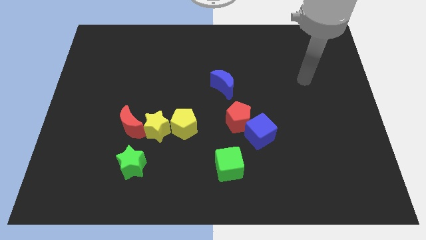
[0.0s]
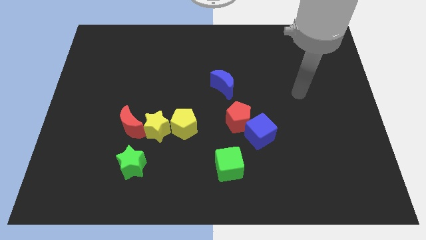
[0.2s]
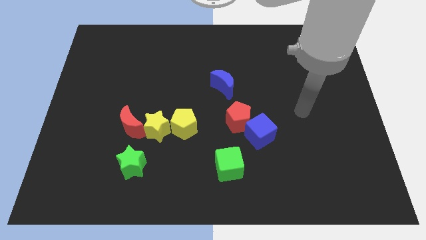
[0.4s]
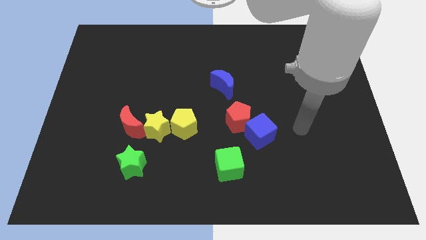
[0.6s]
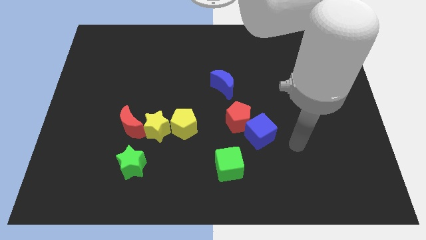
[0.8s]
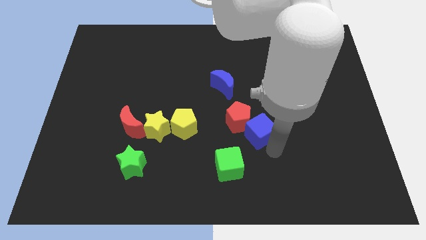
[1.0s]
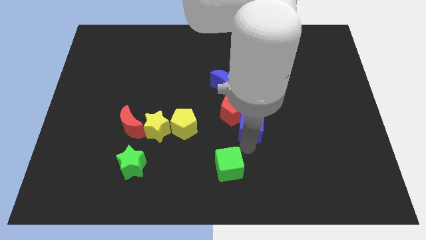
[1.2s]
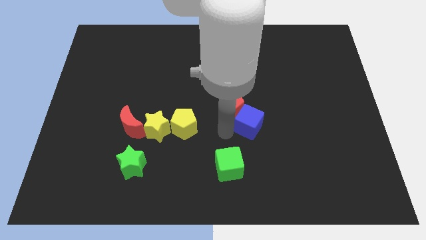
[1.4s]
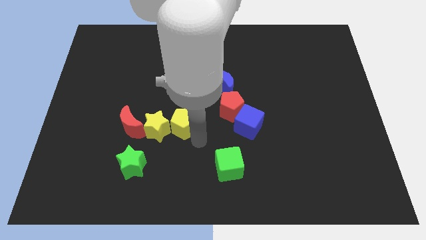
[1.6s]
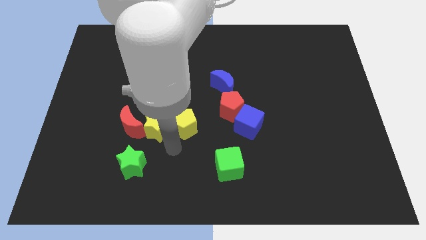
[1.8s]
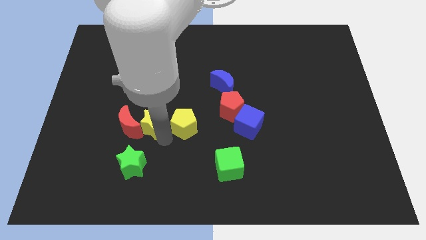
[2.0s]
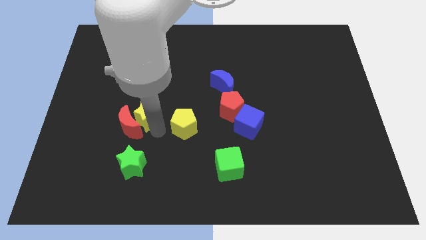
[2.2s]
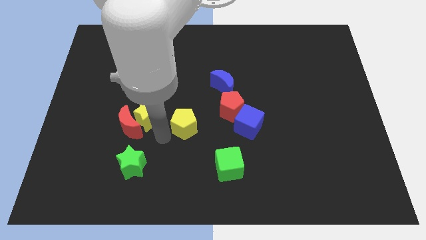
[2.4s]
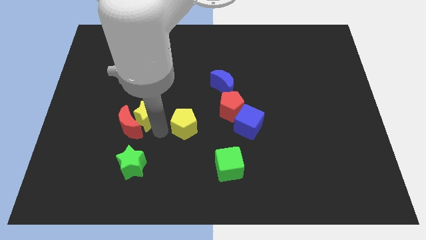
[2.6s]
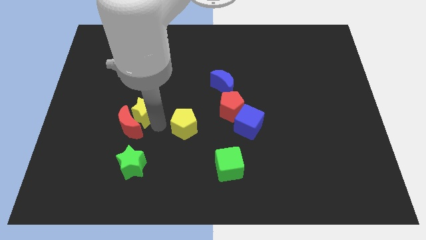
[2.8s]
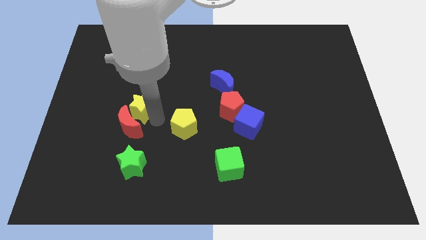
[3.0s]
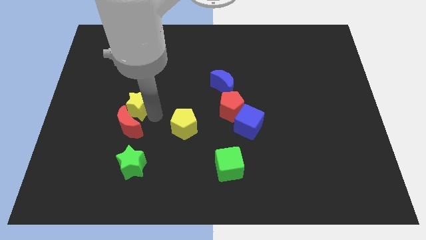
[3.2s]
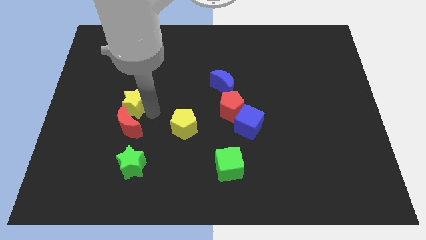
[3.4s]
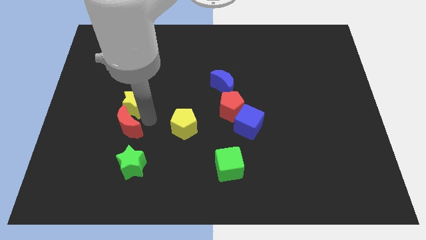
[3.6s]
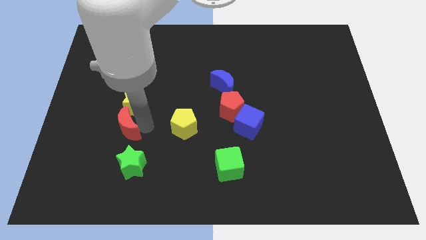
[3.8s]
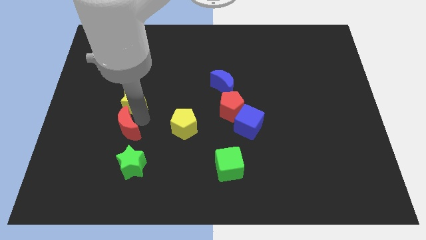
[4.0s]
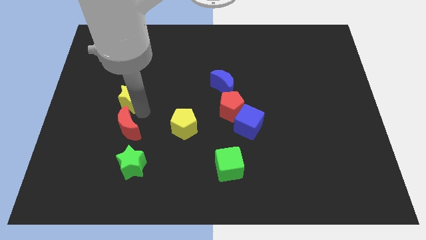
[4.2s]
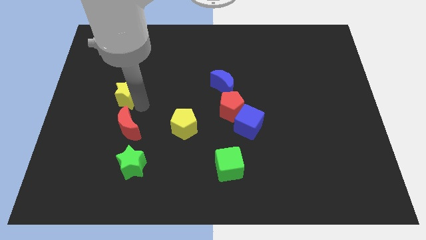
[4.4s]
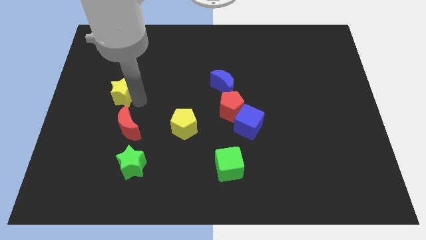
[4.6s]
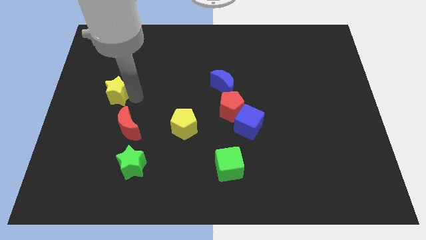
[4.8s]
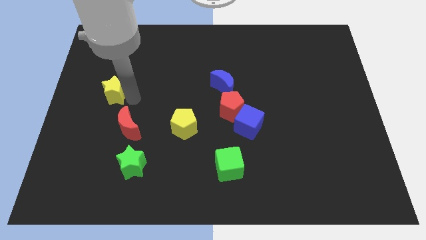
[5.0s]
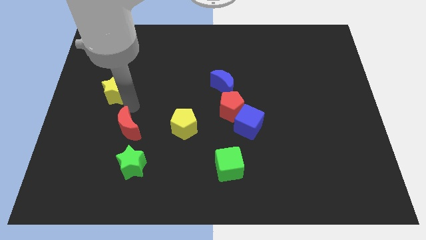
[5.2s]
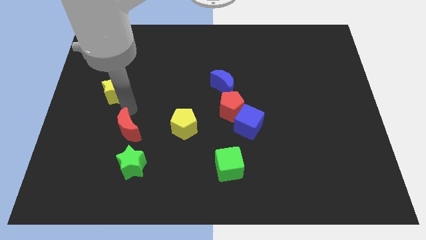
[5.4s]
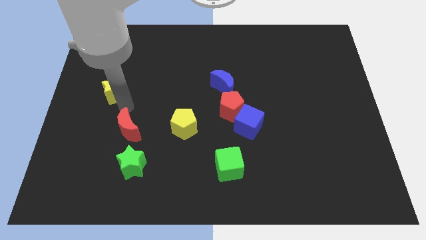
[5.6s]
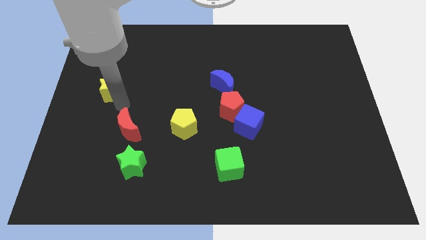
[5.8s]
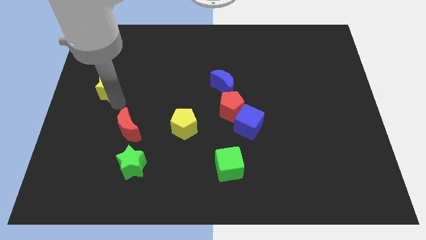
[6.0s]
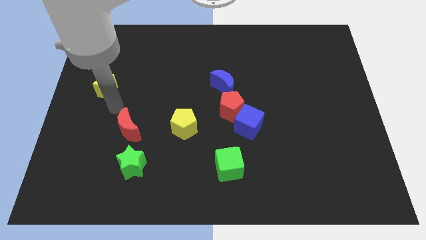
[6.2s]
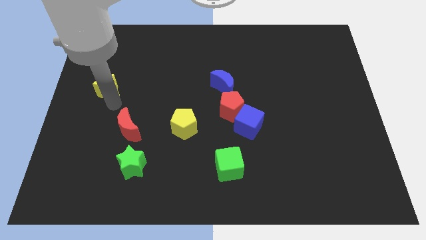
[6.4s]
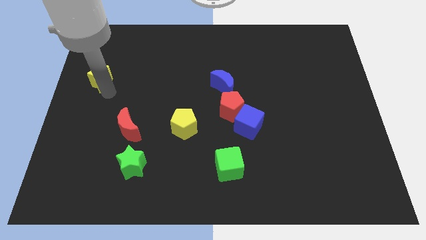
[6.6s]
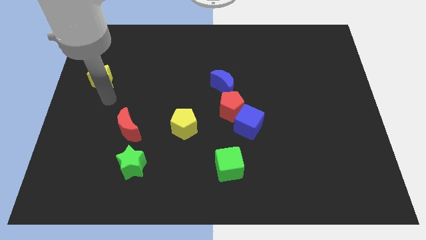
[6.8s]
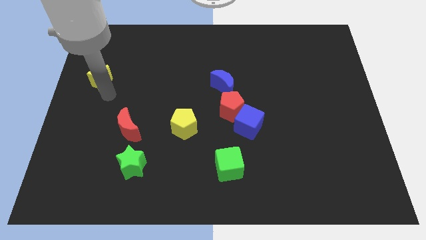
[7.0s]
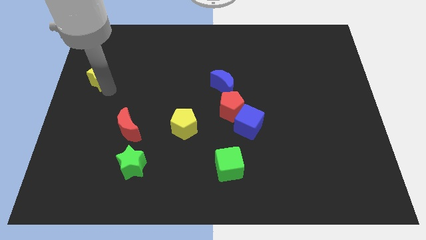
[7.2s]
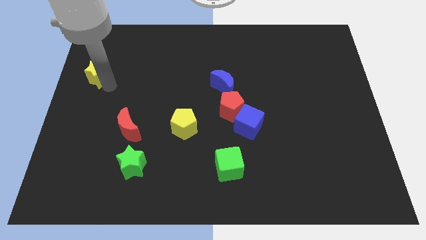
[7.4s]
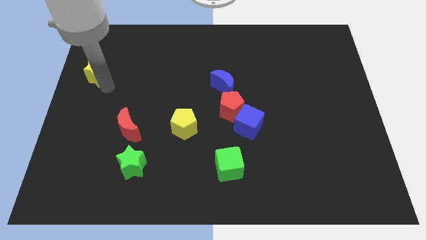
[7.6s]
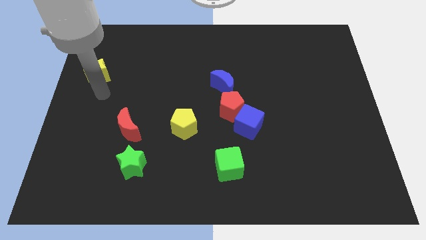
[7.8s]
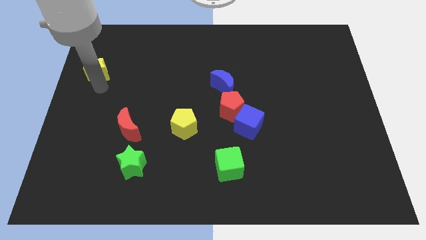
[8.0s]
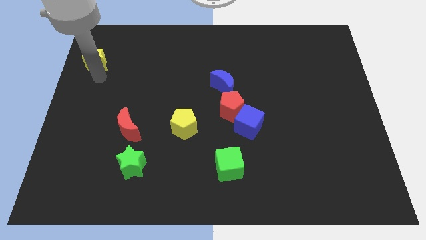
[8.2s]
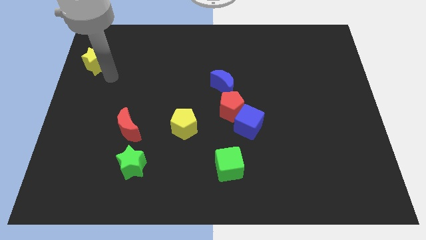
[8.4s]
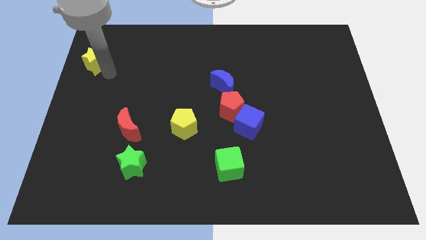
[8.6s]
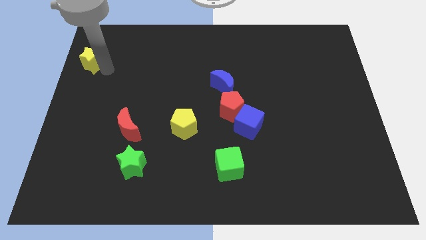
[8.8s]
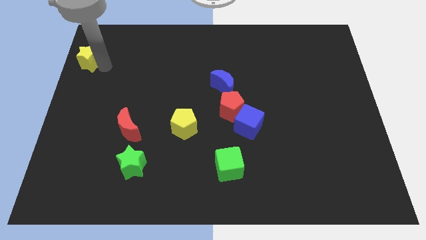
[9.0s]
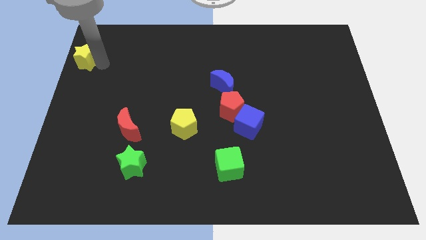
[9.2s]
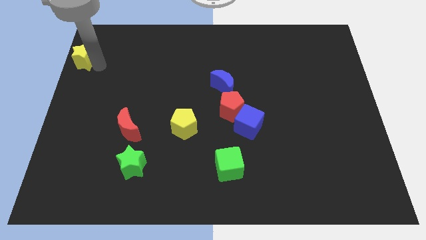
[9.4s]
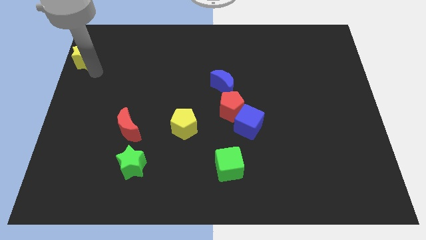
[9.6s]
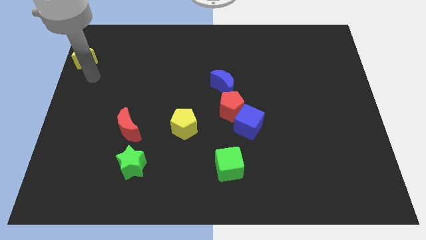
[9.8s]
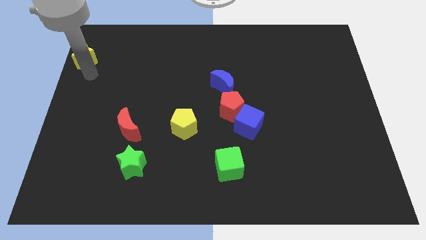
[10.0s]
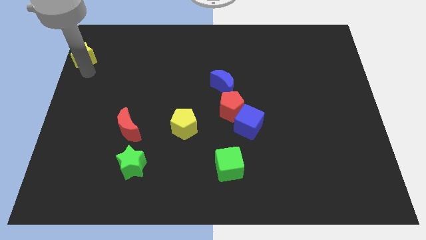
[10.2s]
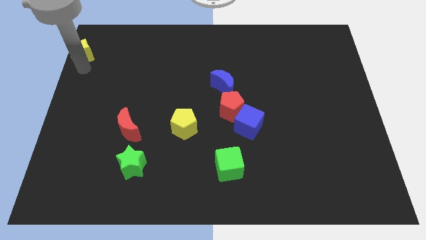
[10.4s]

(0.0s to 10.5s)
move the yellow star to the upper left corner

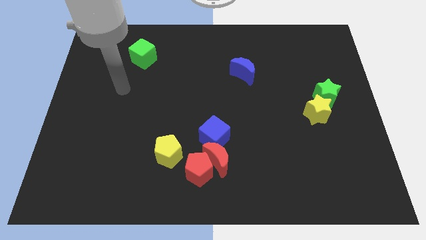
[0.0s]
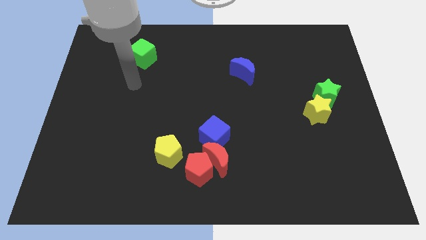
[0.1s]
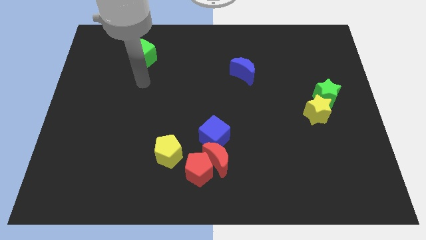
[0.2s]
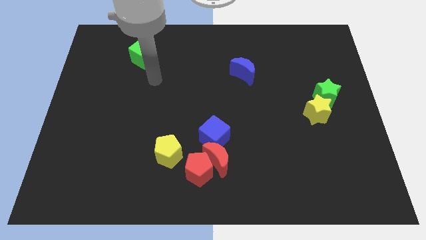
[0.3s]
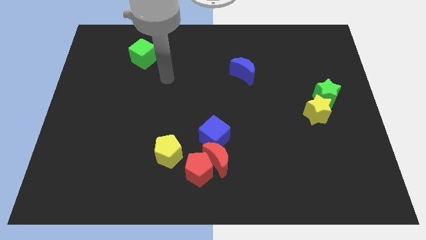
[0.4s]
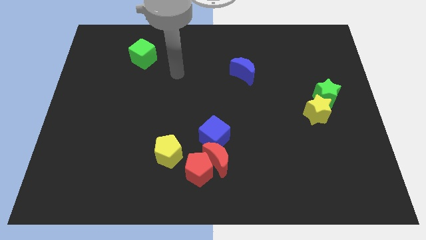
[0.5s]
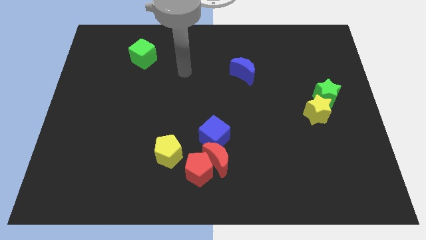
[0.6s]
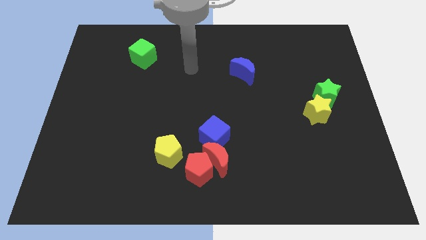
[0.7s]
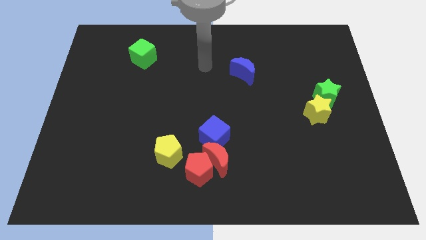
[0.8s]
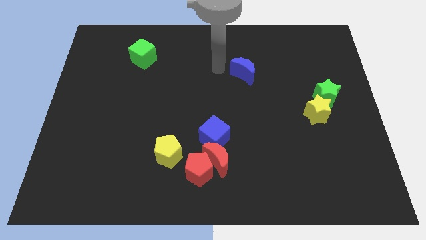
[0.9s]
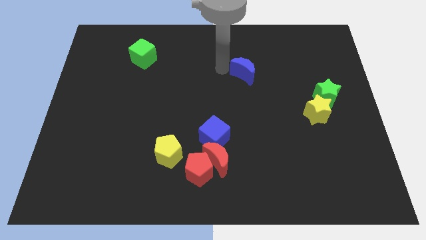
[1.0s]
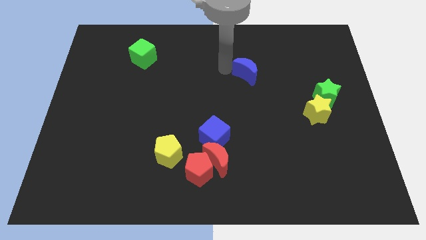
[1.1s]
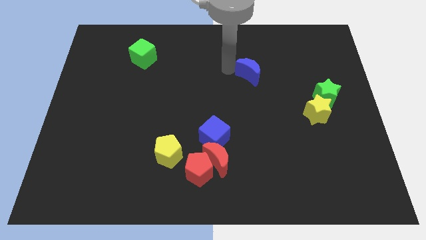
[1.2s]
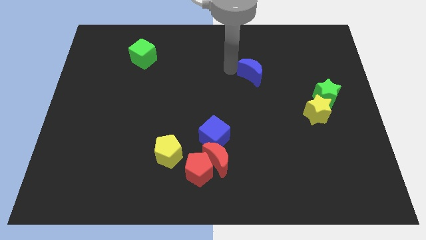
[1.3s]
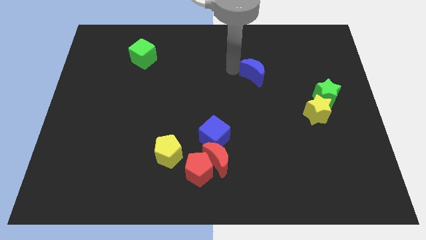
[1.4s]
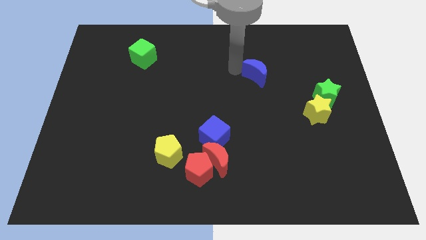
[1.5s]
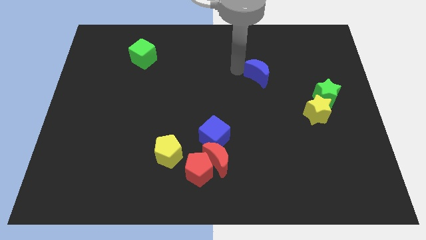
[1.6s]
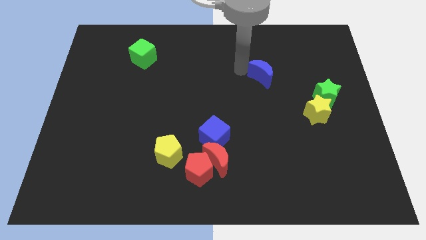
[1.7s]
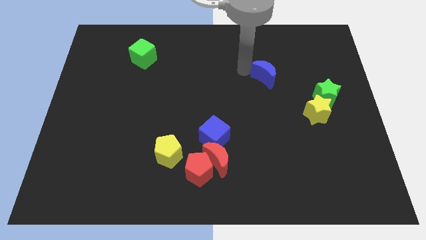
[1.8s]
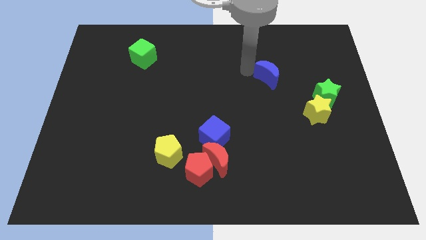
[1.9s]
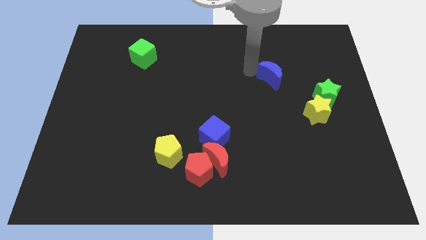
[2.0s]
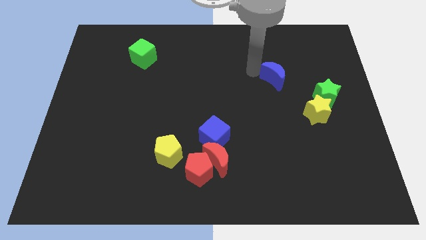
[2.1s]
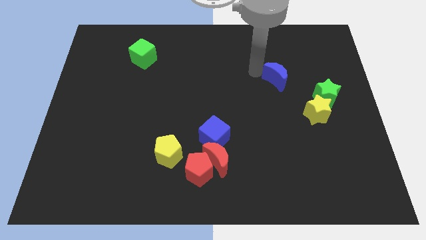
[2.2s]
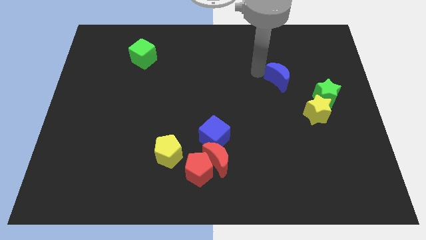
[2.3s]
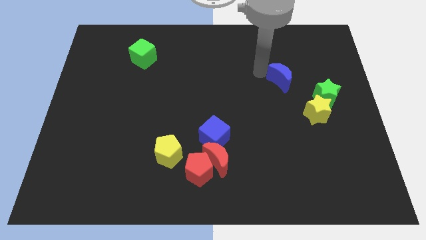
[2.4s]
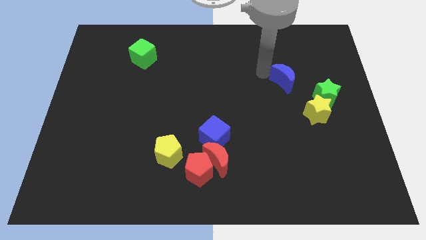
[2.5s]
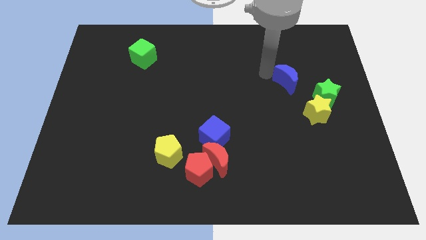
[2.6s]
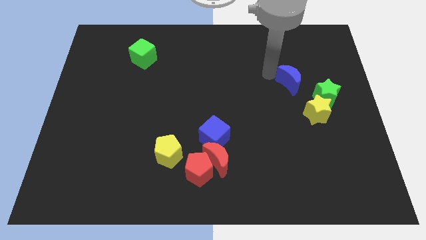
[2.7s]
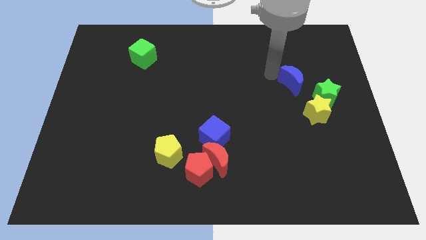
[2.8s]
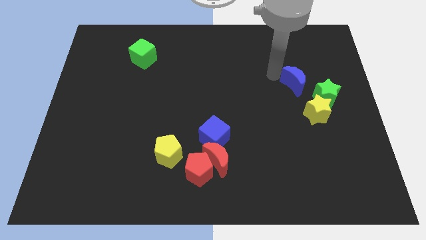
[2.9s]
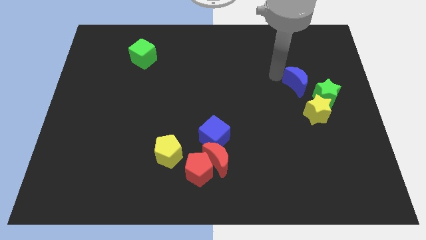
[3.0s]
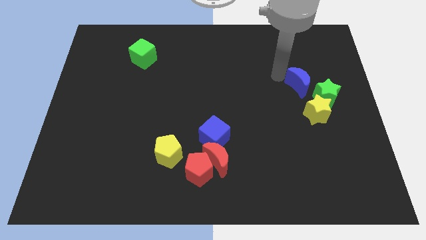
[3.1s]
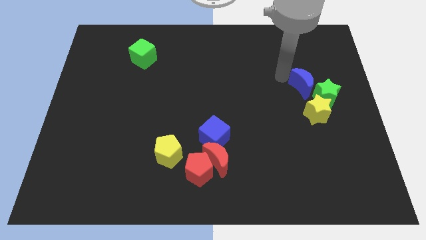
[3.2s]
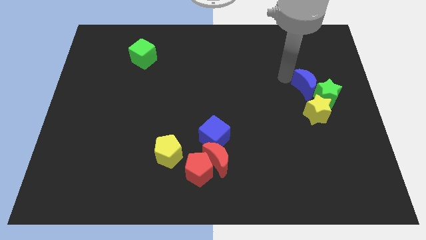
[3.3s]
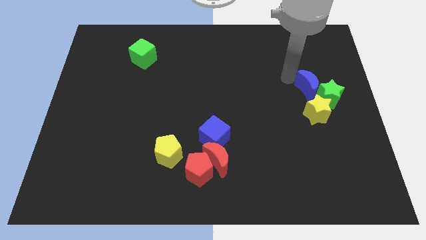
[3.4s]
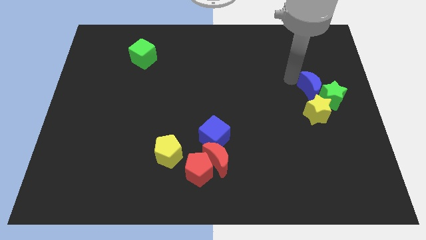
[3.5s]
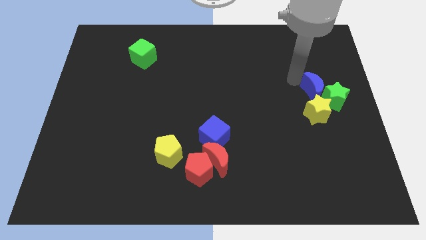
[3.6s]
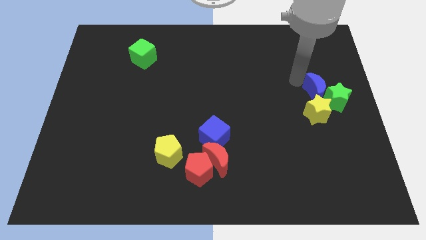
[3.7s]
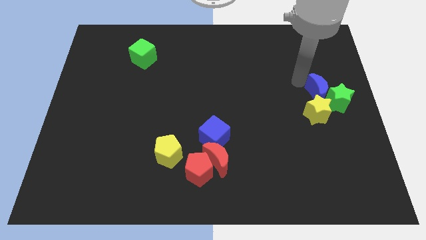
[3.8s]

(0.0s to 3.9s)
move the blue moon to the center right
